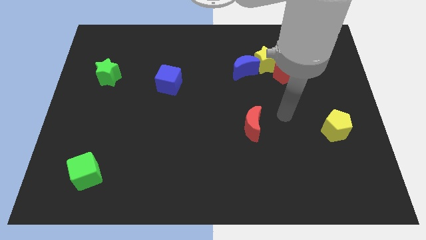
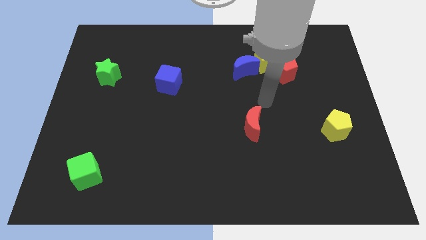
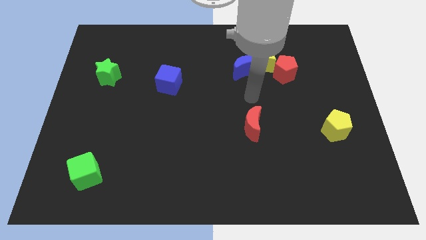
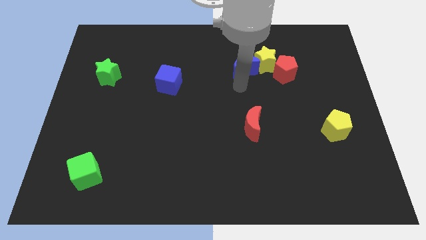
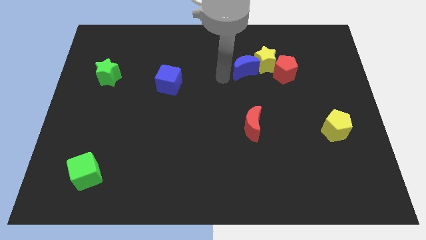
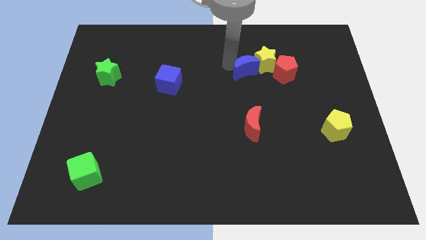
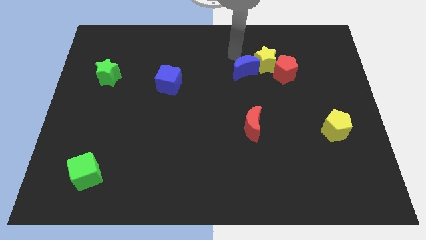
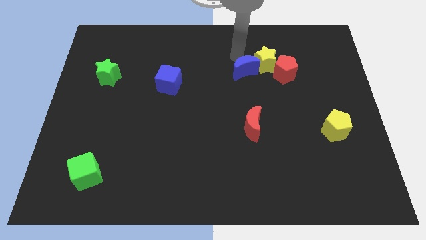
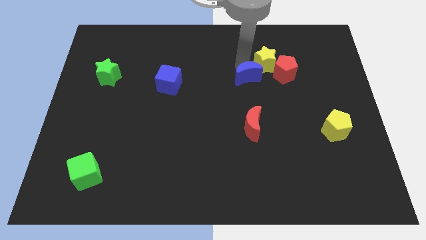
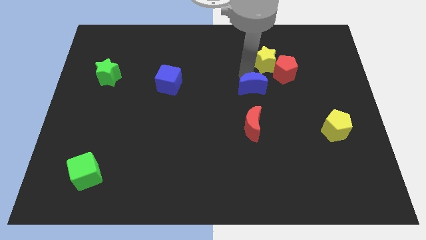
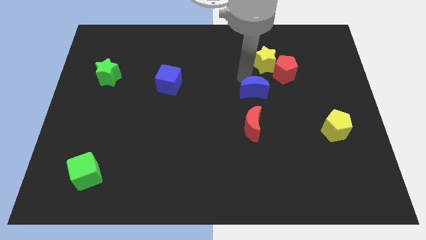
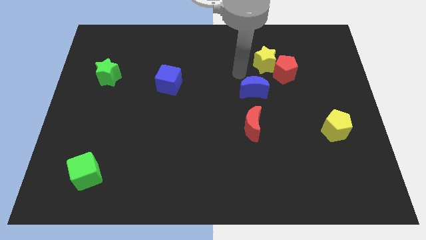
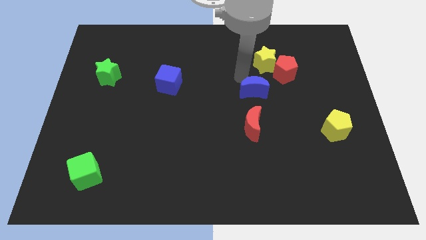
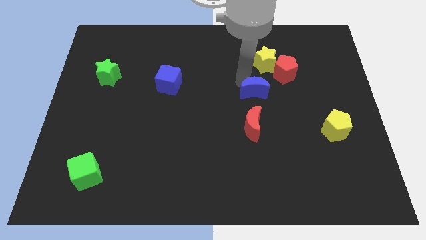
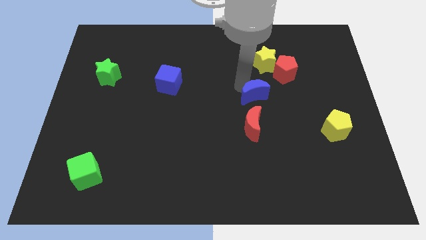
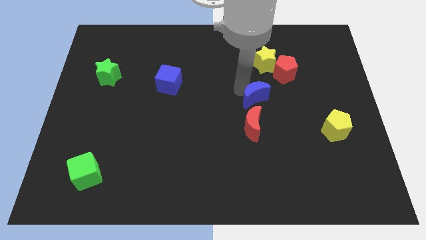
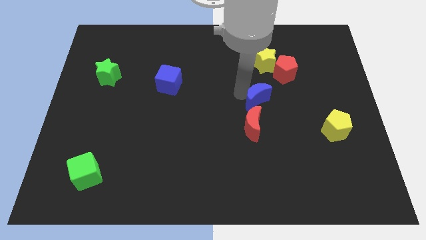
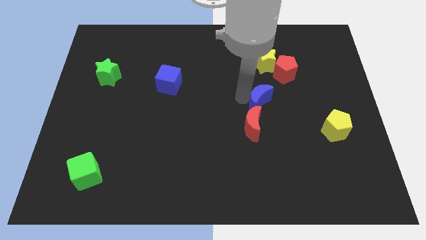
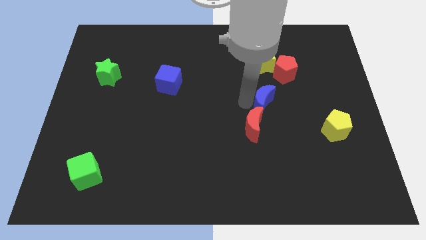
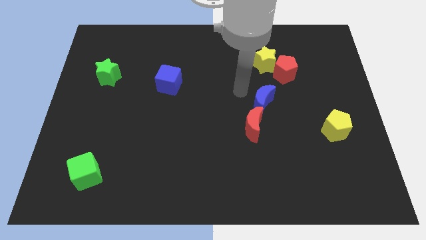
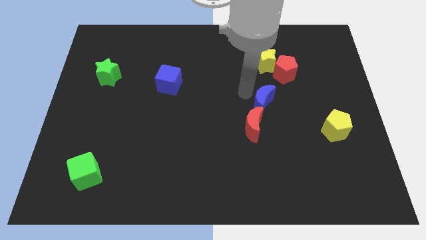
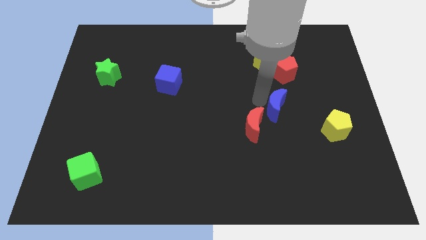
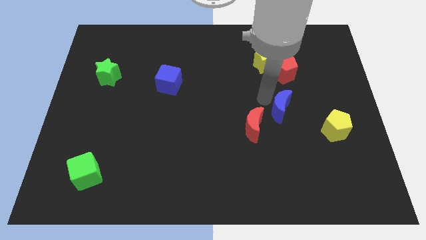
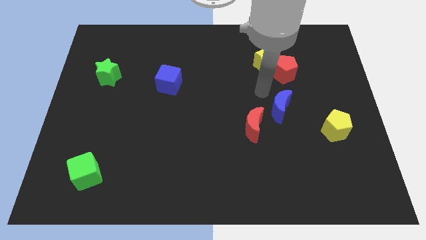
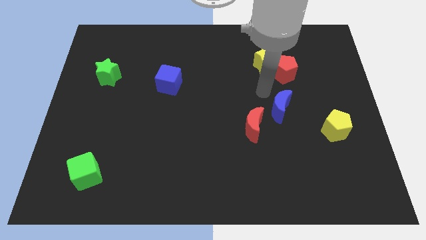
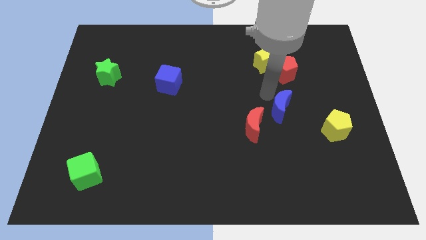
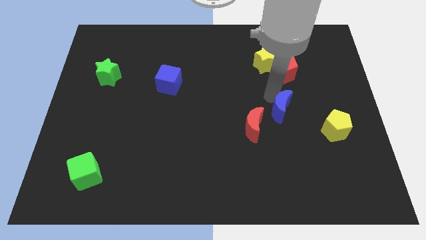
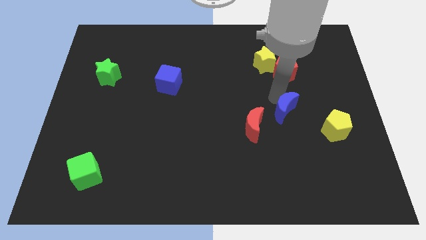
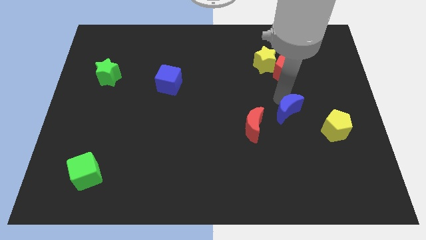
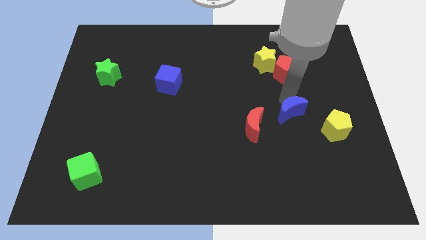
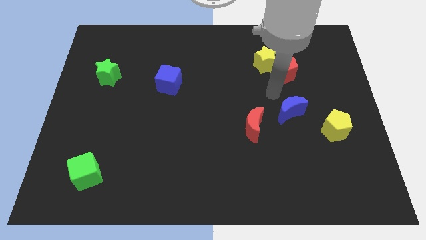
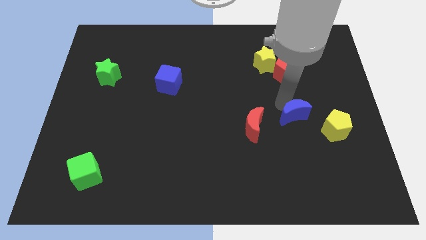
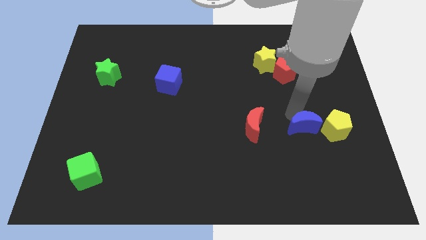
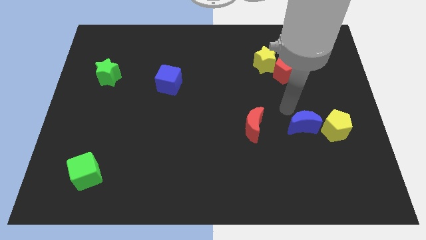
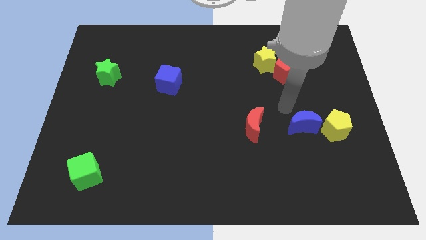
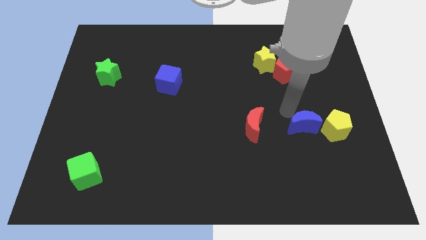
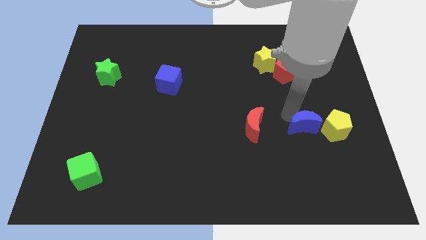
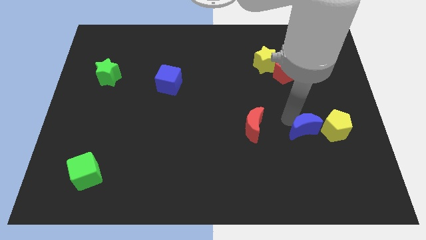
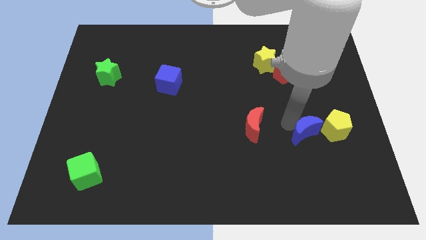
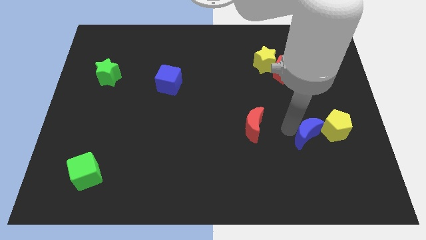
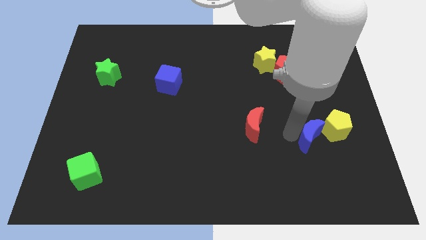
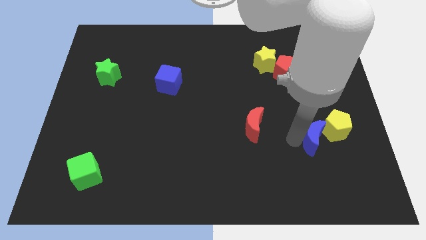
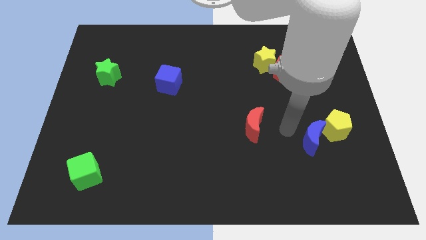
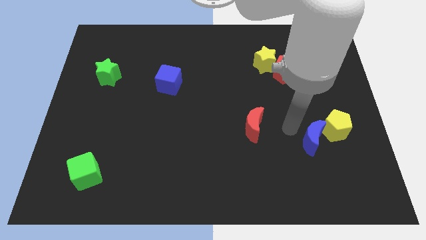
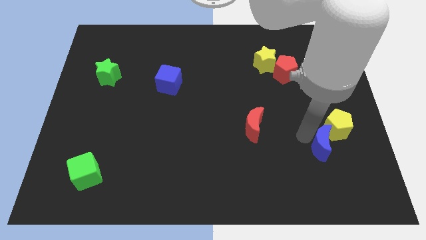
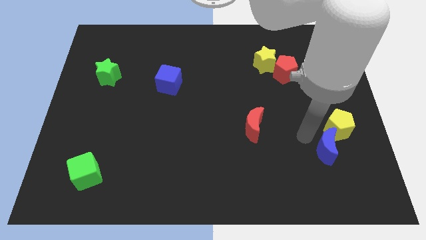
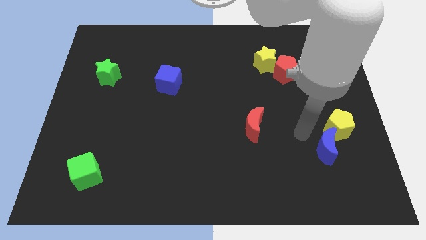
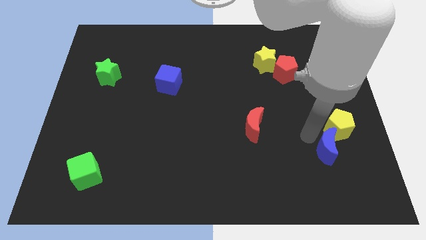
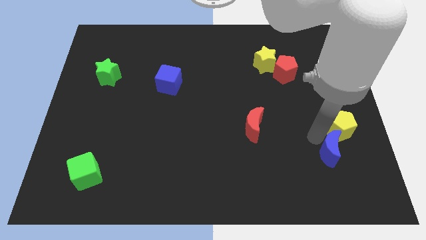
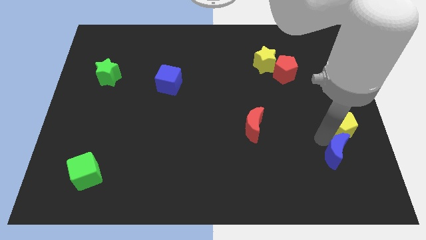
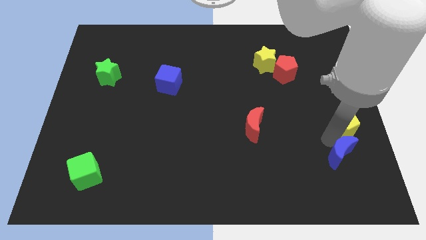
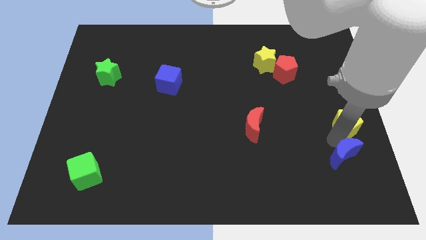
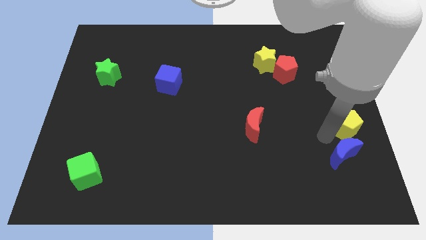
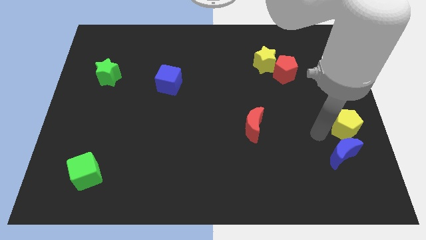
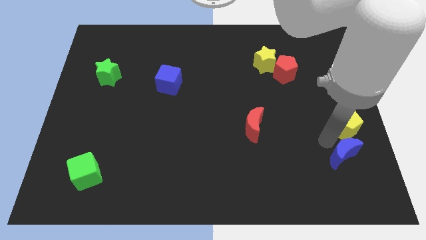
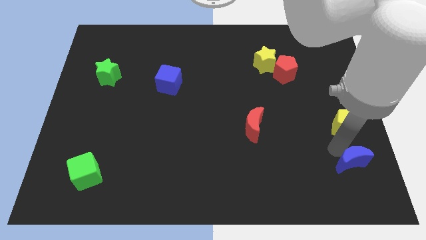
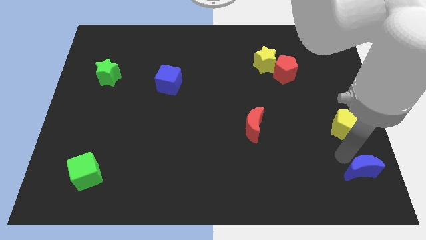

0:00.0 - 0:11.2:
slide the blue moon to the bottom right corner
